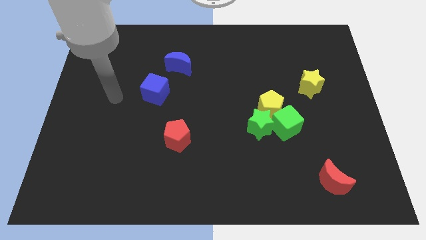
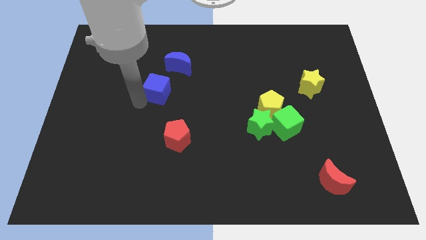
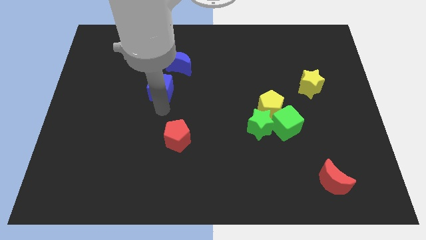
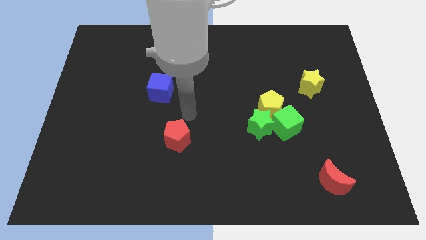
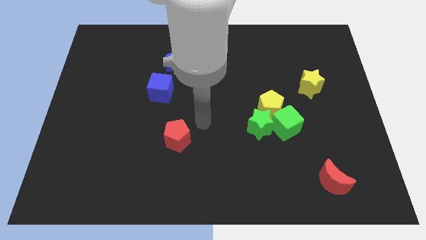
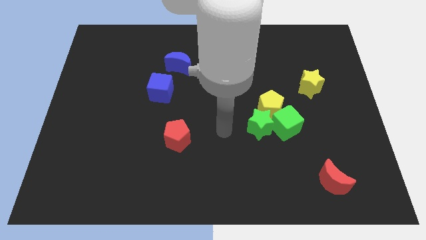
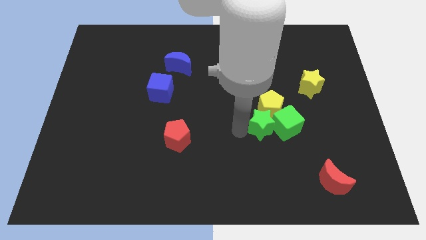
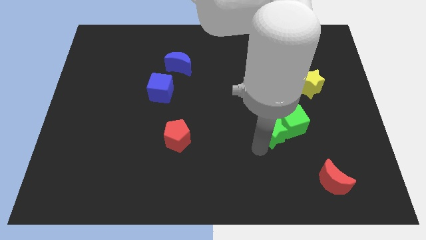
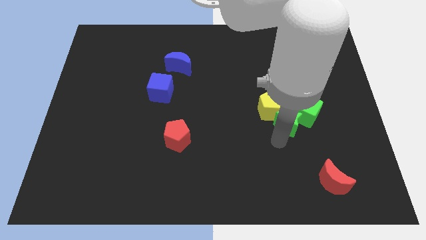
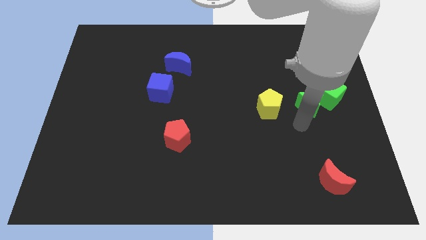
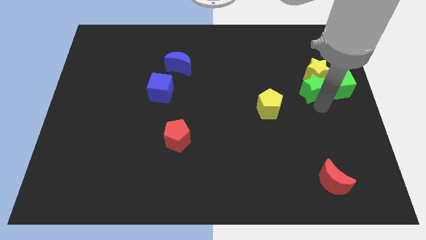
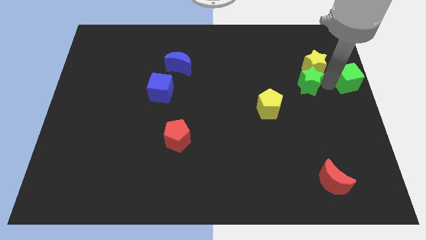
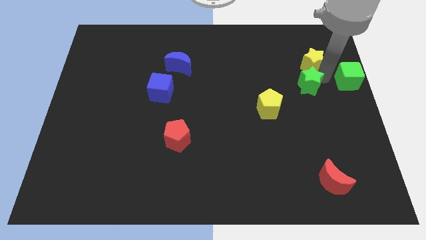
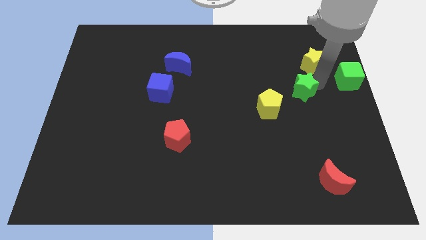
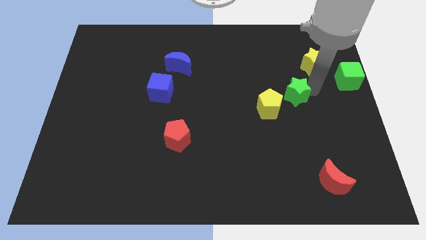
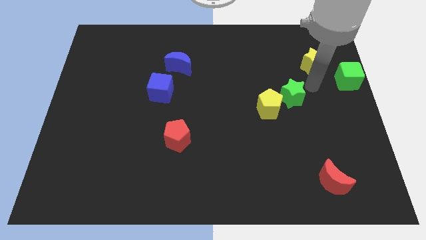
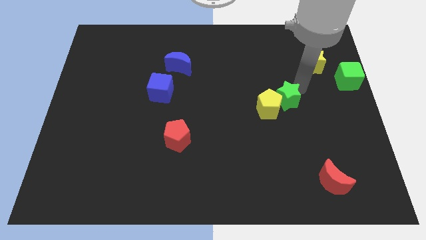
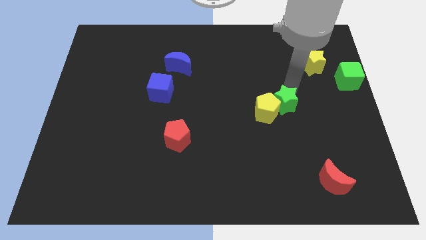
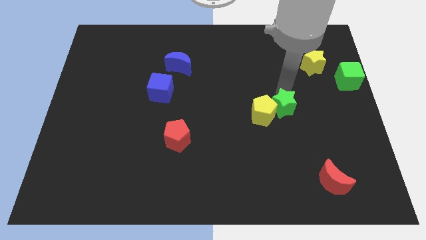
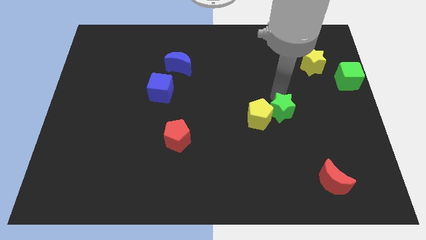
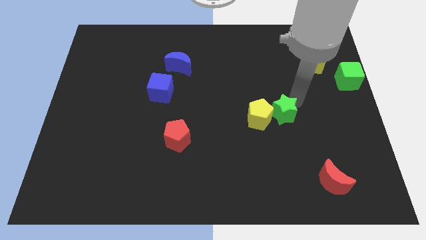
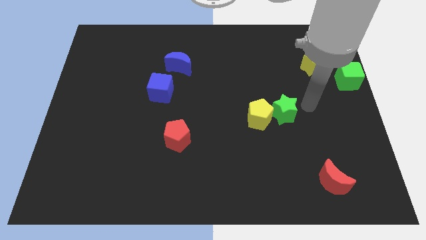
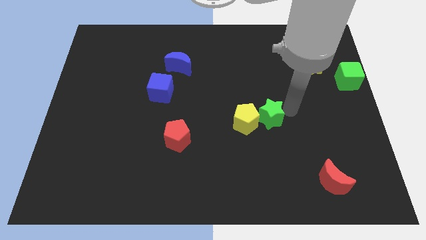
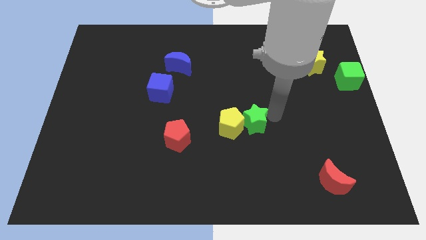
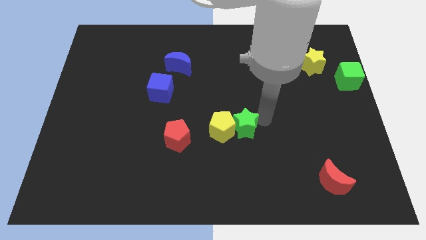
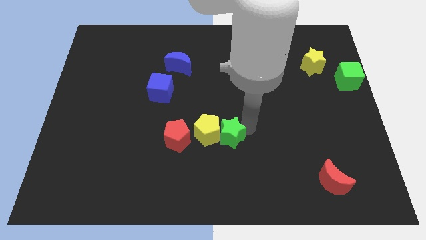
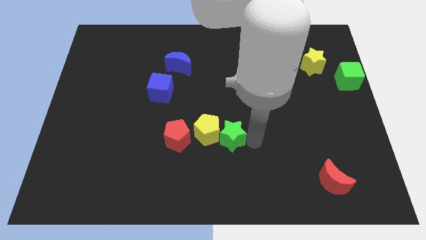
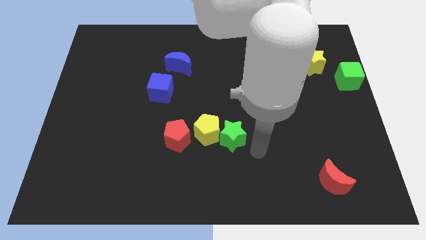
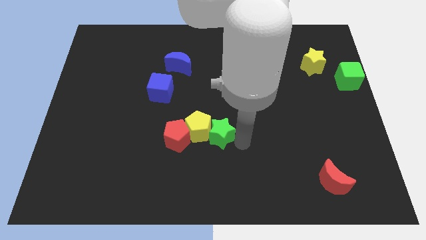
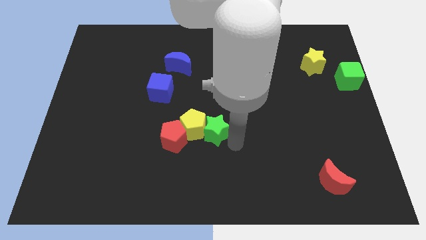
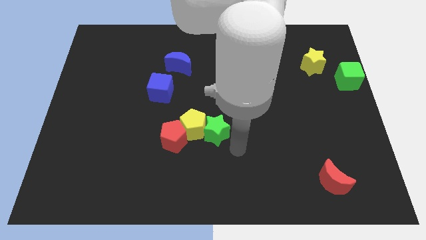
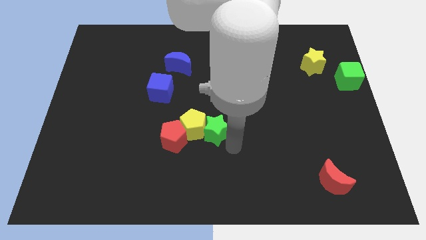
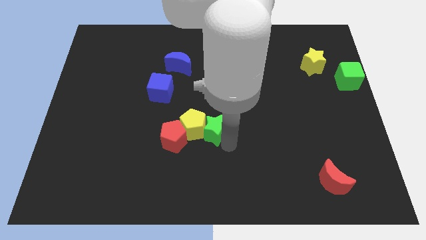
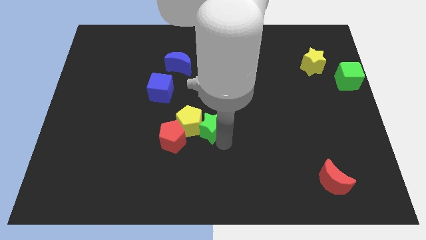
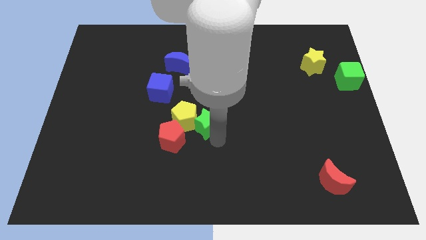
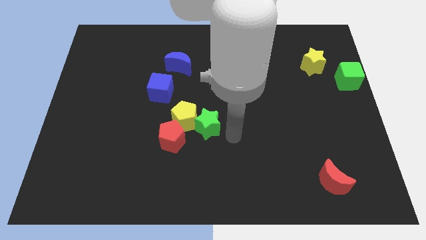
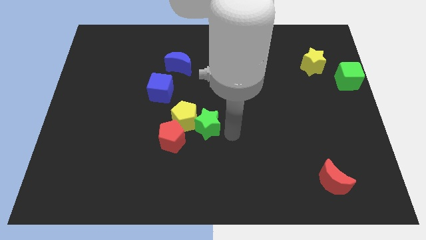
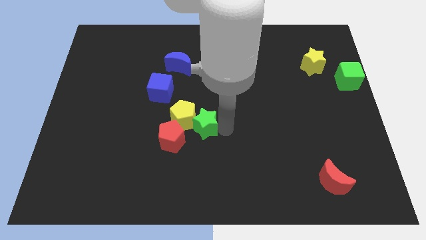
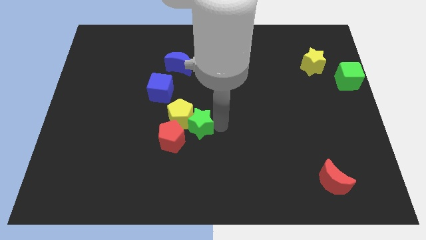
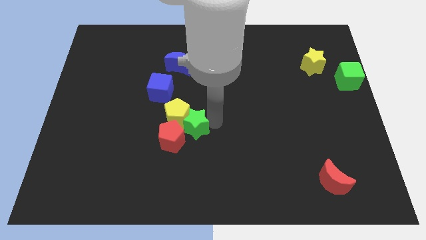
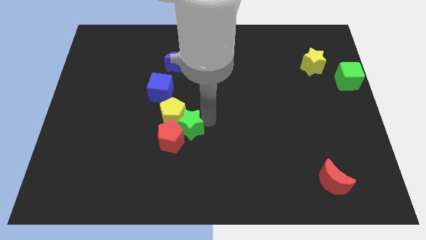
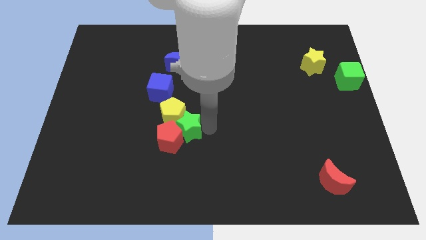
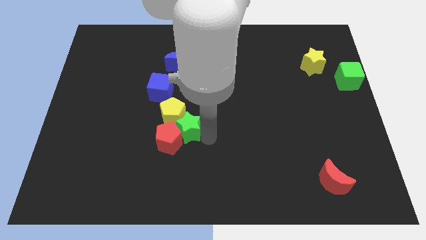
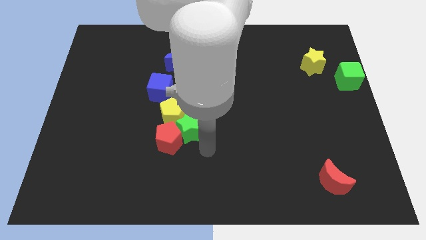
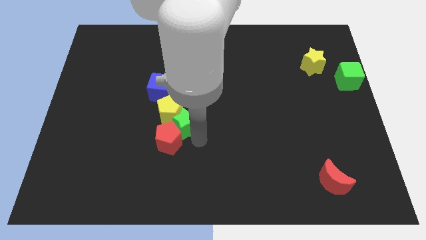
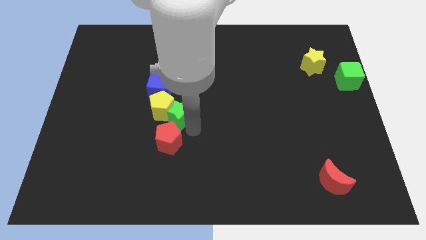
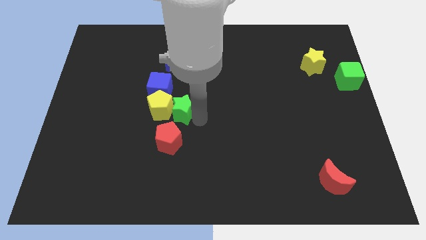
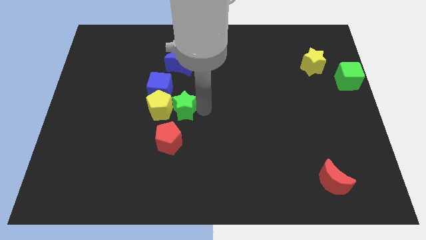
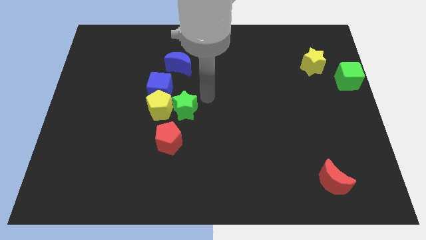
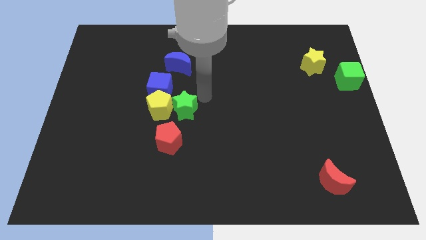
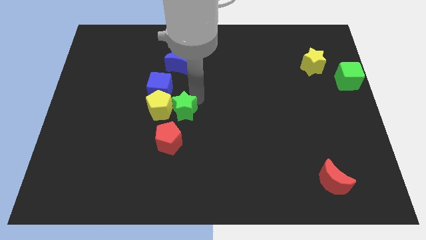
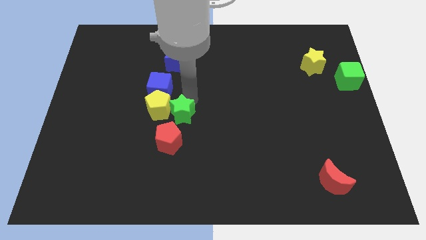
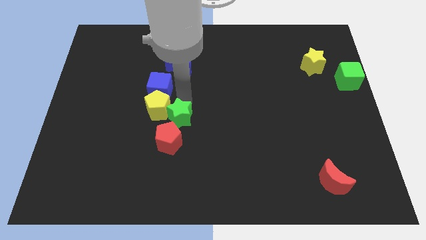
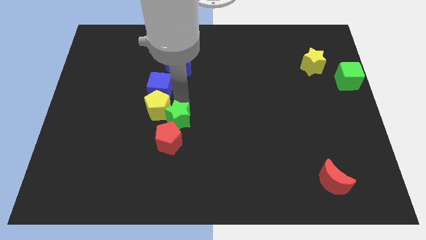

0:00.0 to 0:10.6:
move the green star below the blue cube

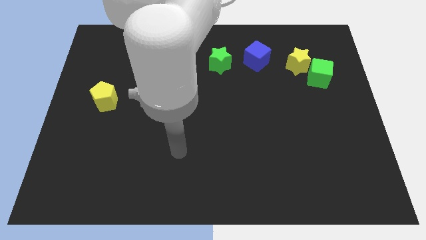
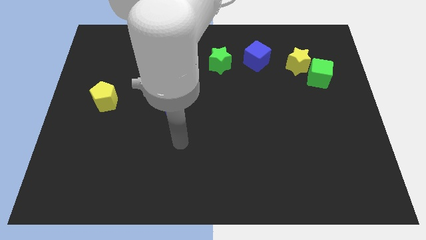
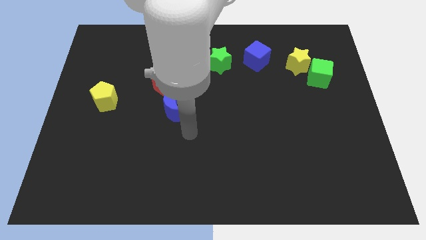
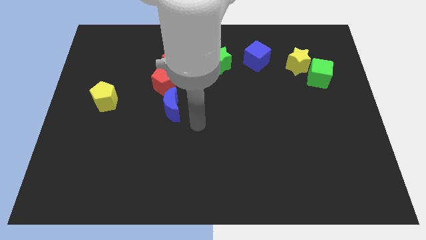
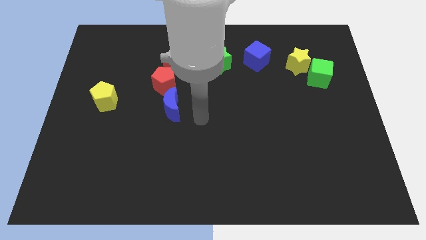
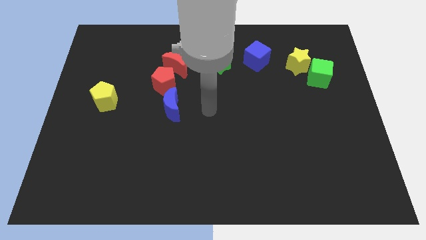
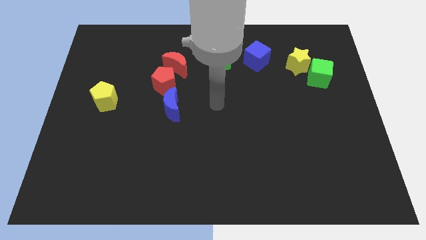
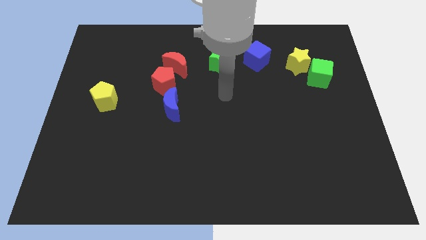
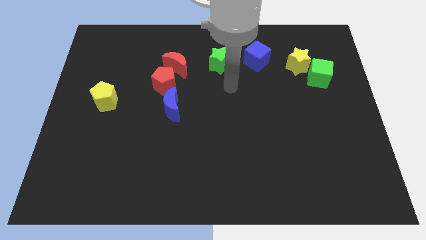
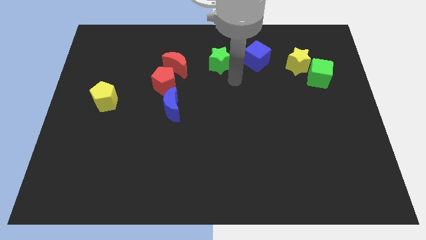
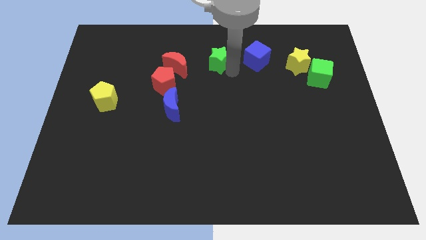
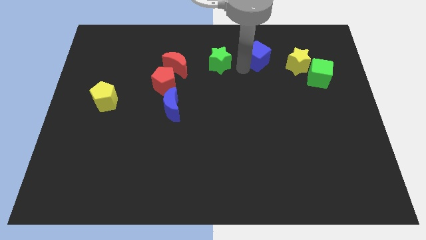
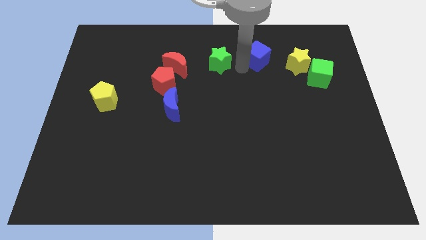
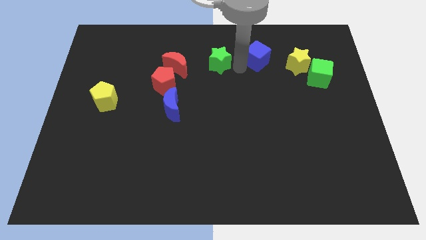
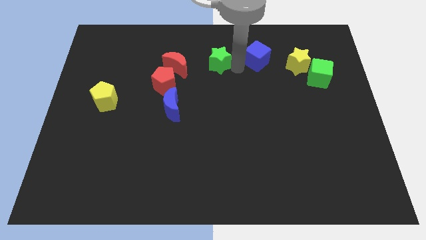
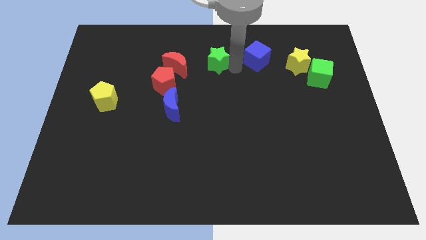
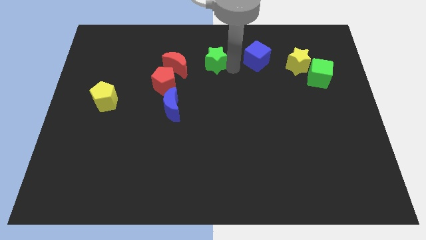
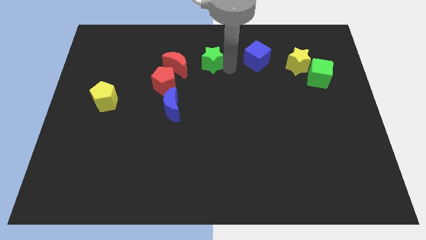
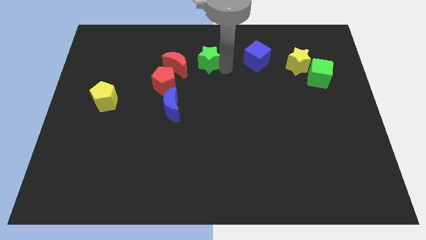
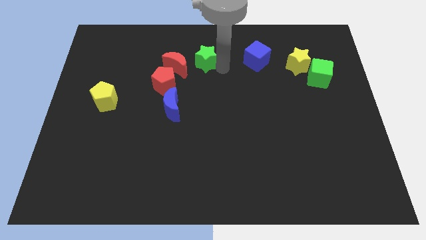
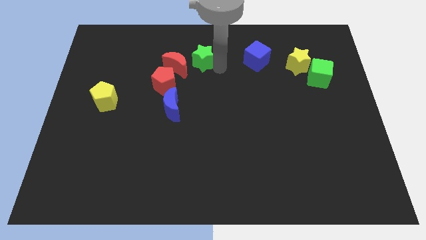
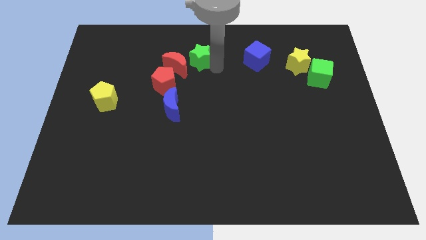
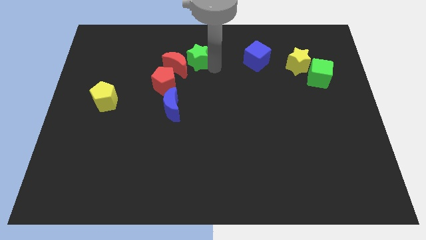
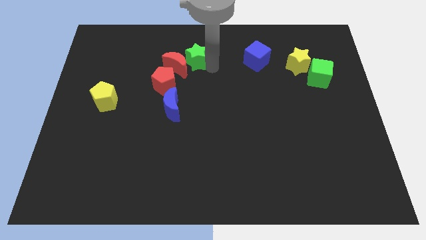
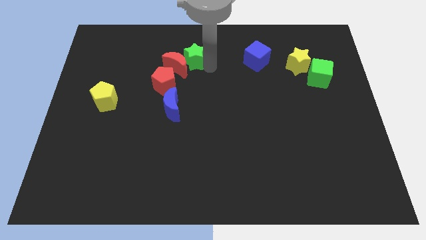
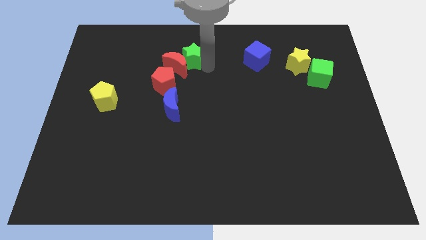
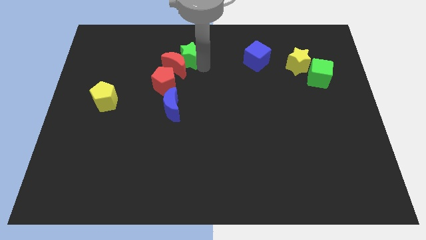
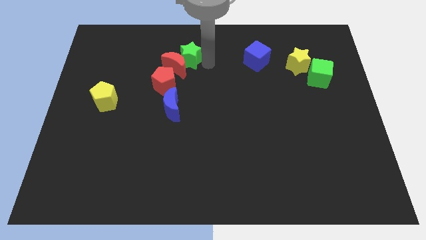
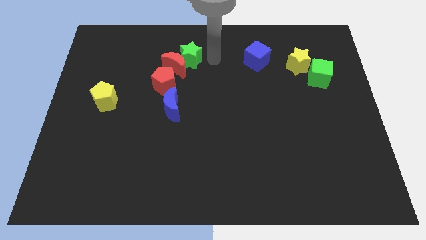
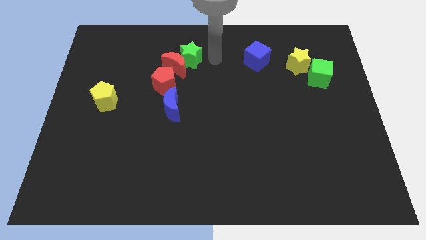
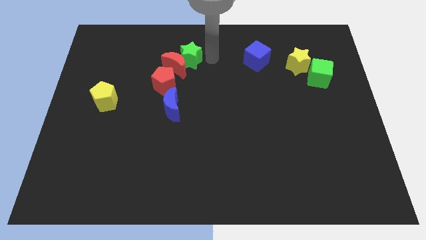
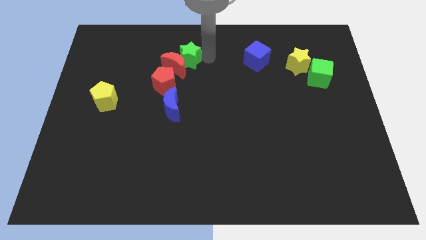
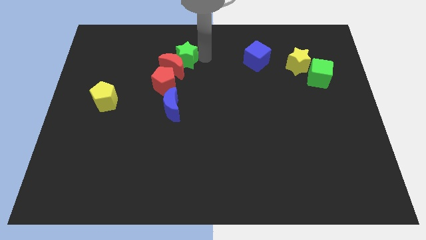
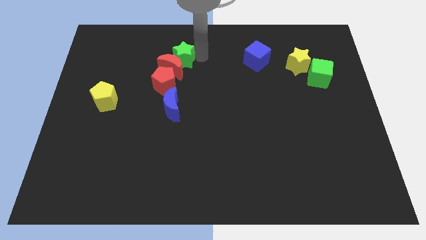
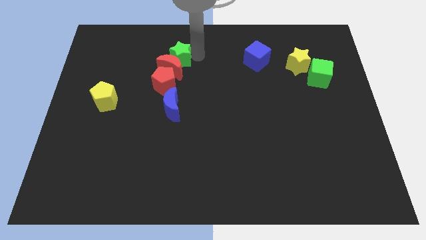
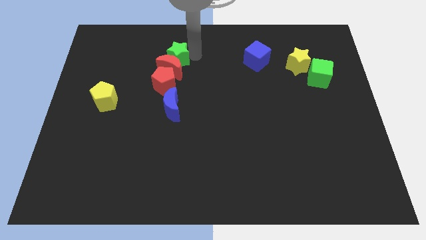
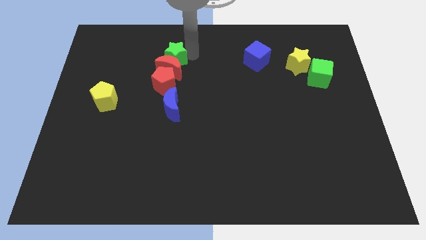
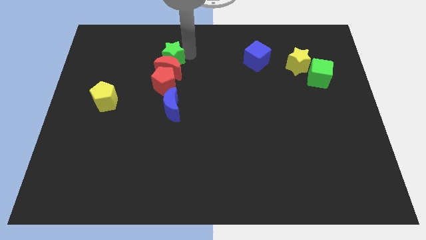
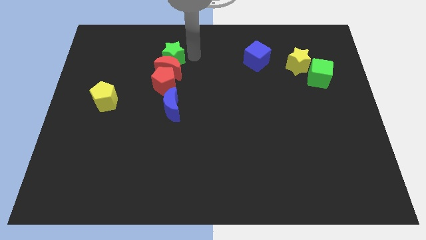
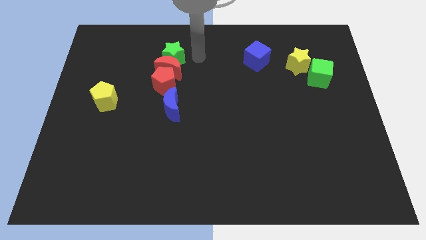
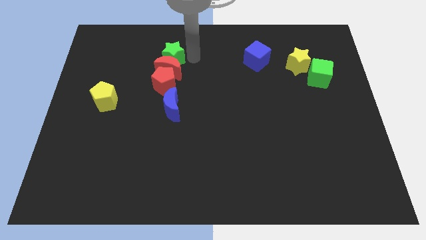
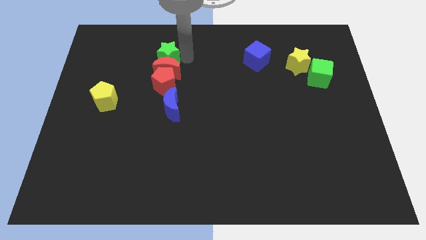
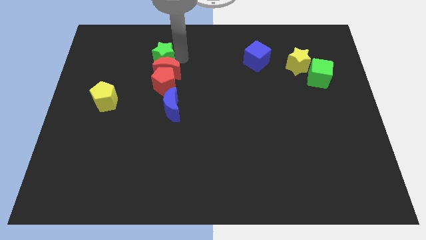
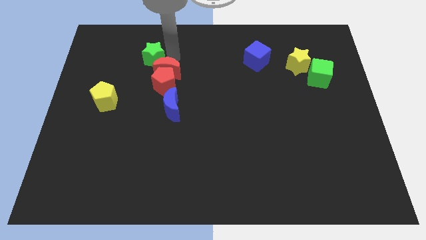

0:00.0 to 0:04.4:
put the green star left of the red moon
